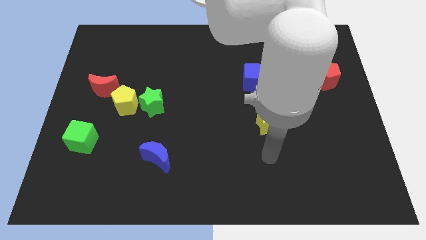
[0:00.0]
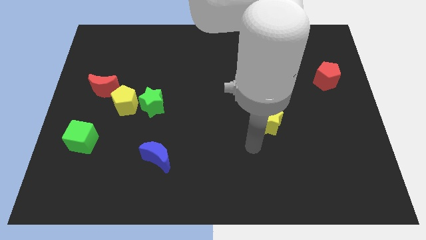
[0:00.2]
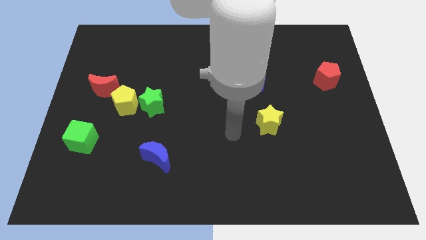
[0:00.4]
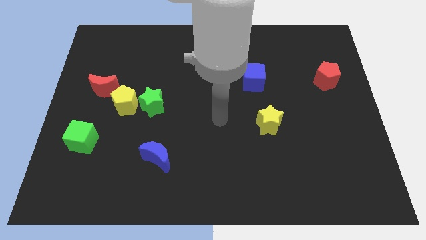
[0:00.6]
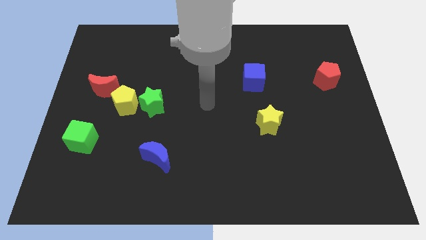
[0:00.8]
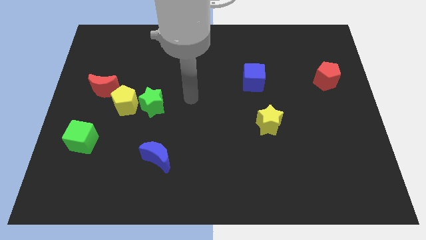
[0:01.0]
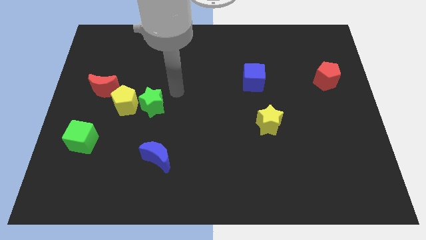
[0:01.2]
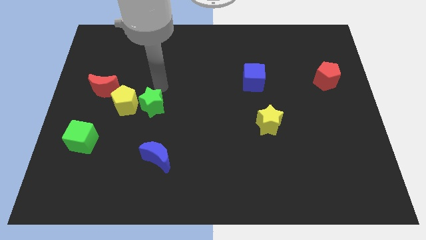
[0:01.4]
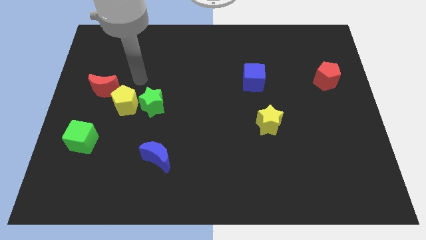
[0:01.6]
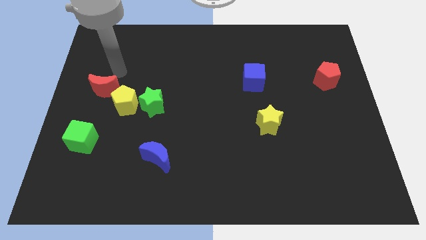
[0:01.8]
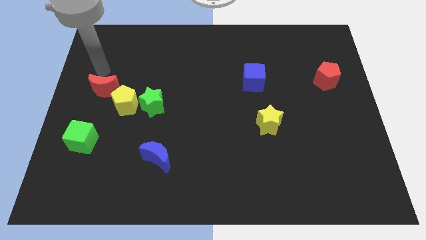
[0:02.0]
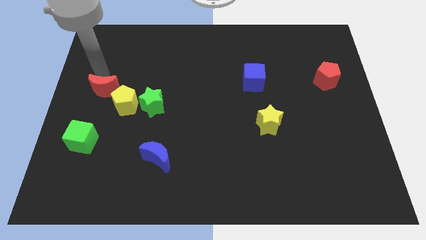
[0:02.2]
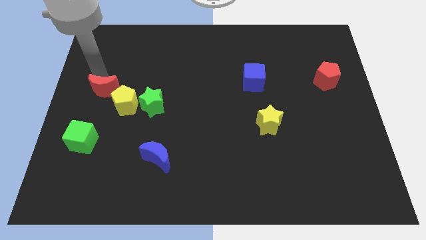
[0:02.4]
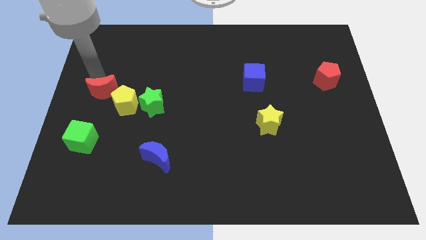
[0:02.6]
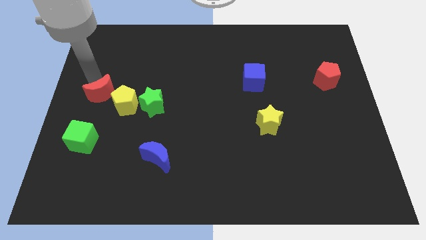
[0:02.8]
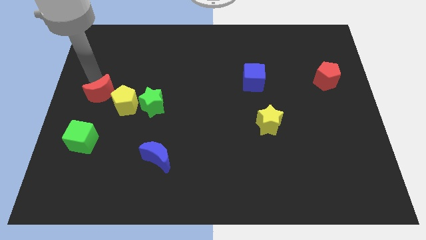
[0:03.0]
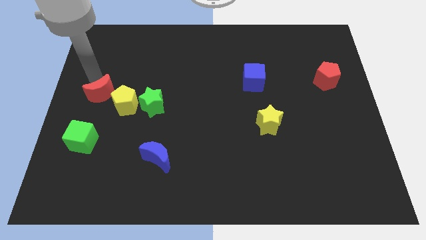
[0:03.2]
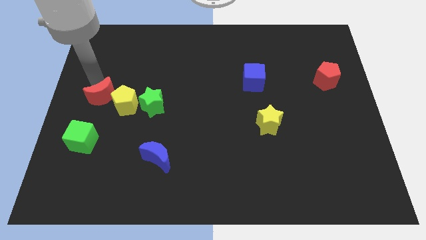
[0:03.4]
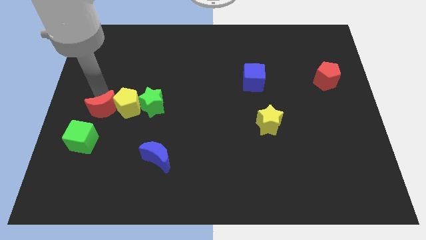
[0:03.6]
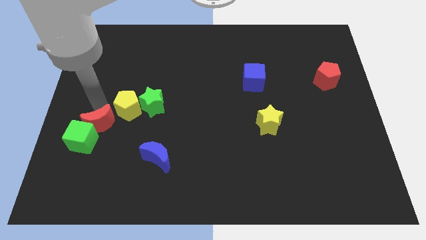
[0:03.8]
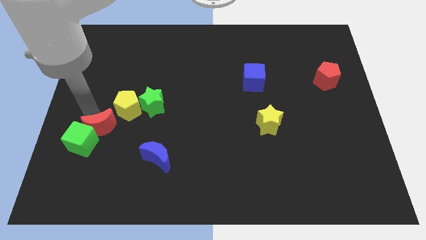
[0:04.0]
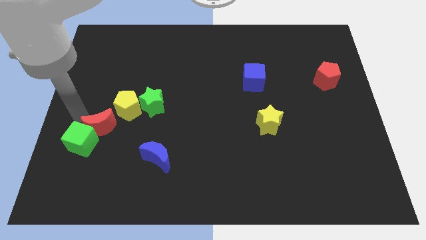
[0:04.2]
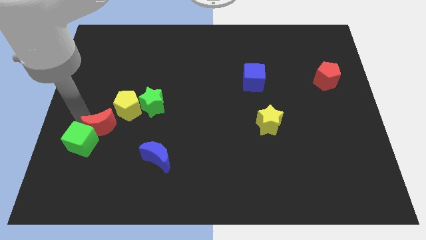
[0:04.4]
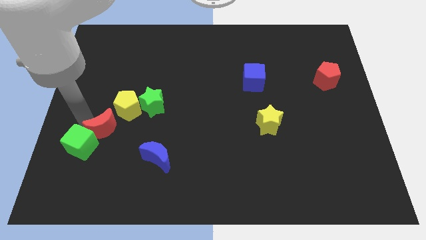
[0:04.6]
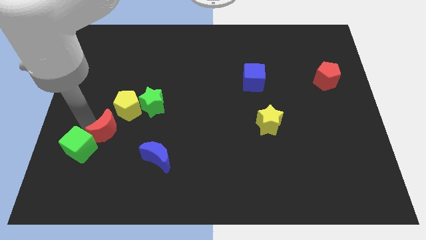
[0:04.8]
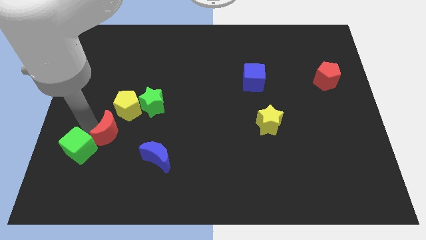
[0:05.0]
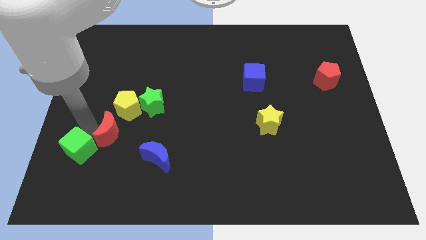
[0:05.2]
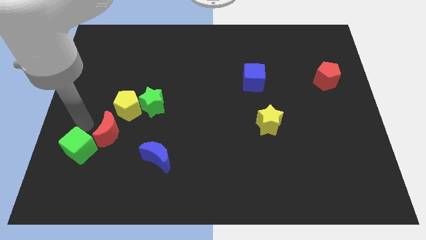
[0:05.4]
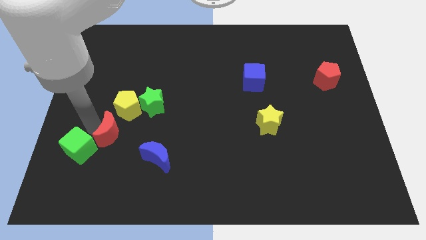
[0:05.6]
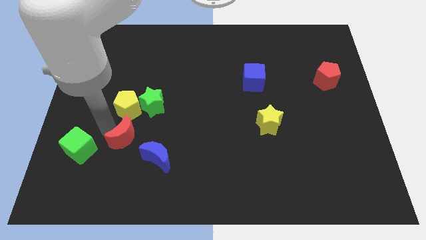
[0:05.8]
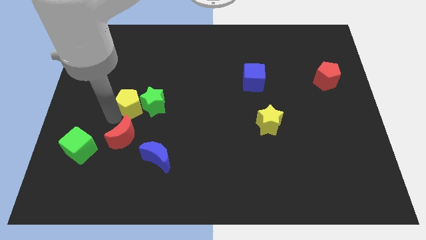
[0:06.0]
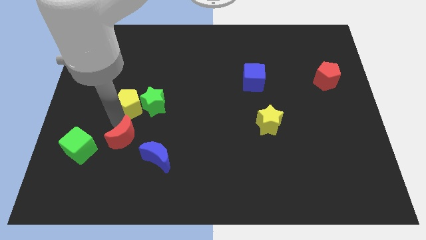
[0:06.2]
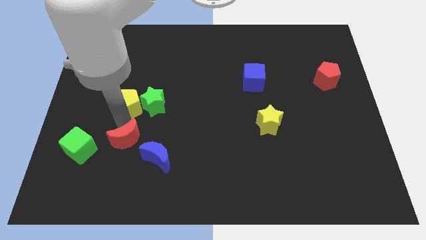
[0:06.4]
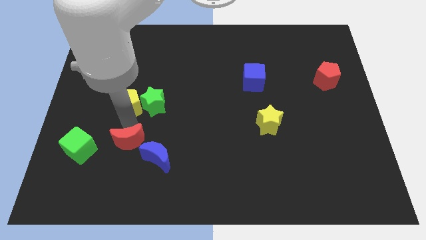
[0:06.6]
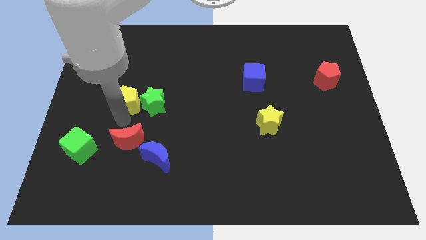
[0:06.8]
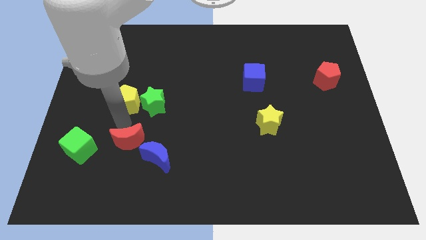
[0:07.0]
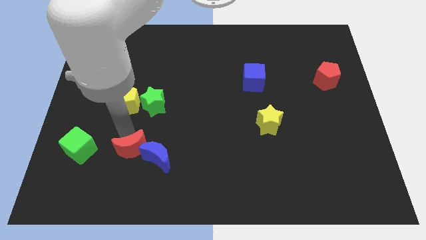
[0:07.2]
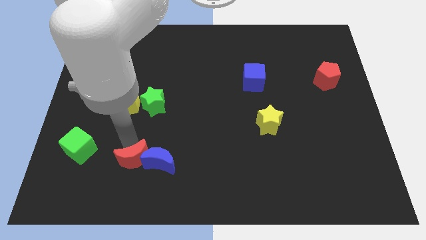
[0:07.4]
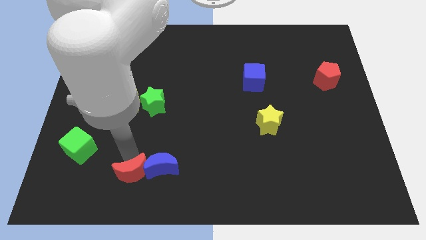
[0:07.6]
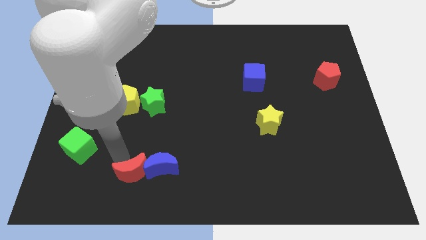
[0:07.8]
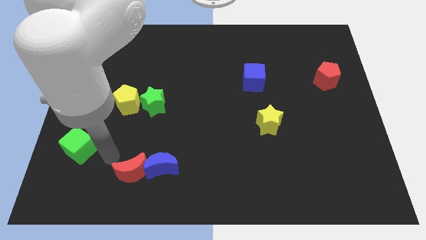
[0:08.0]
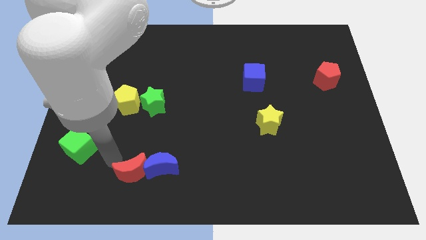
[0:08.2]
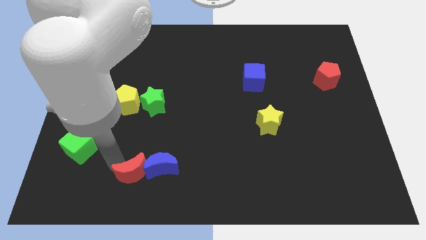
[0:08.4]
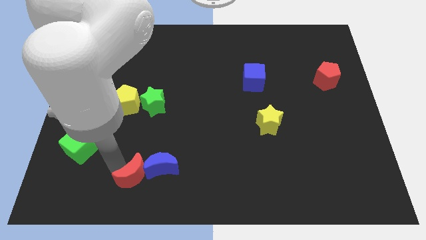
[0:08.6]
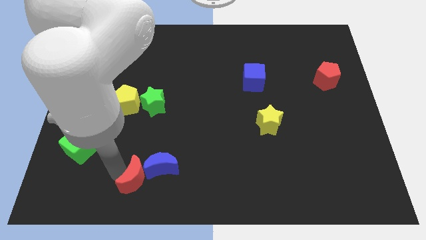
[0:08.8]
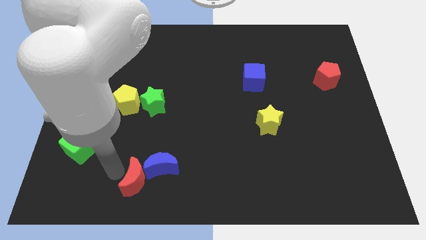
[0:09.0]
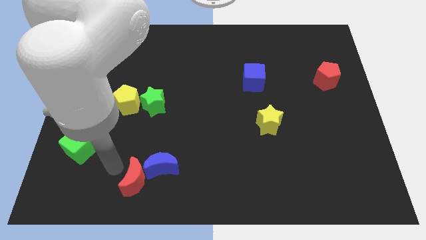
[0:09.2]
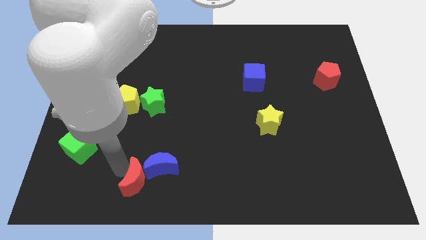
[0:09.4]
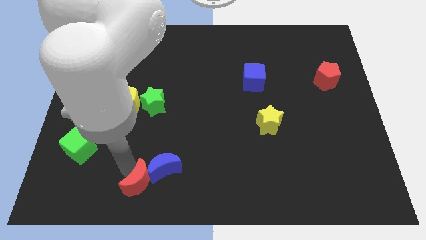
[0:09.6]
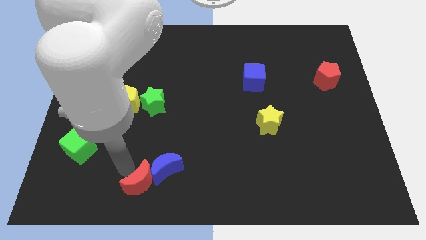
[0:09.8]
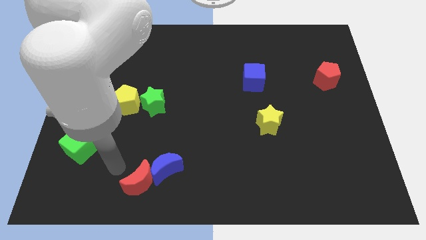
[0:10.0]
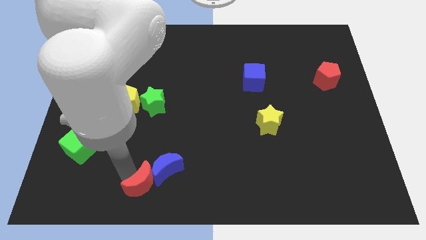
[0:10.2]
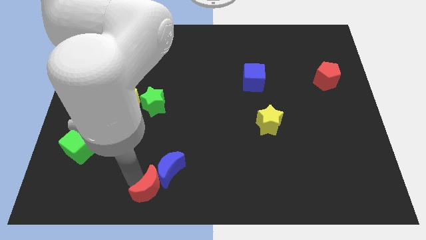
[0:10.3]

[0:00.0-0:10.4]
push the red moon to the bottom side
